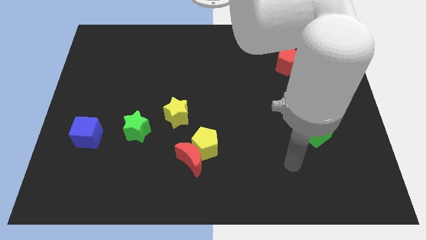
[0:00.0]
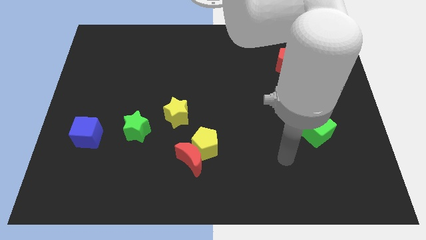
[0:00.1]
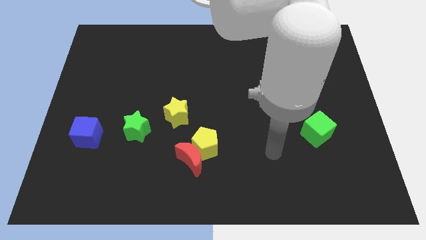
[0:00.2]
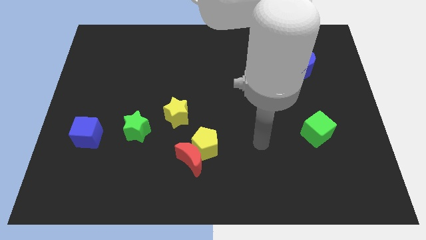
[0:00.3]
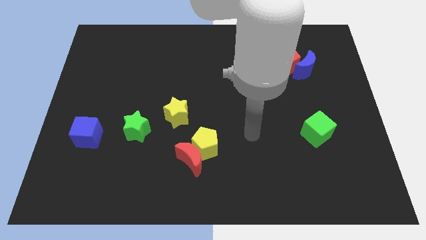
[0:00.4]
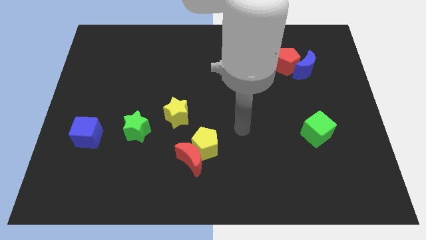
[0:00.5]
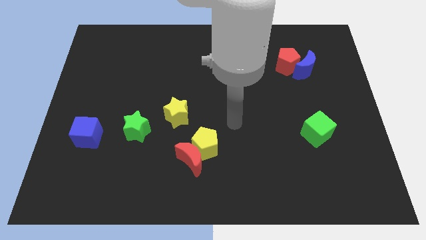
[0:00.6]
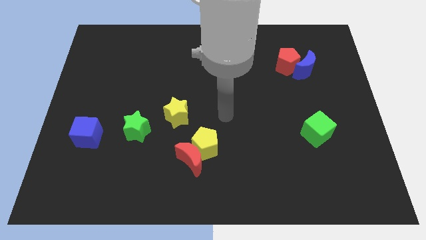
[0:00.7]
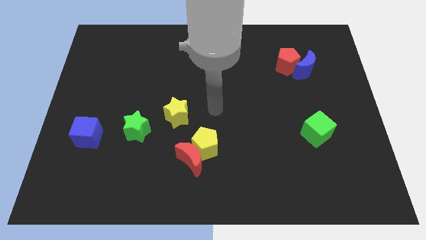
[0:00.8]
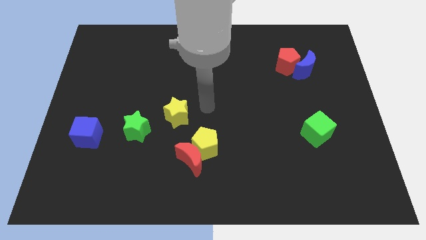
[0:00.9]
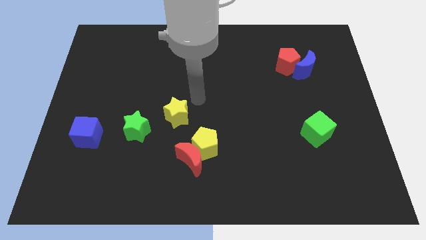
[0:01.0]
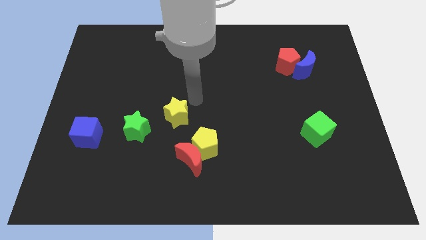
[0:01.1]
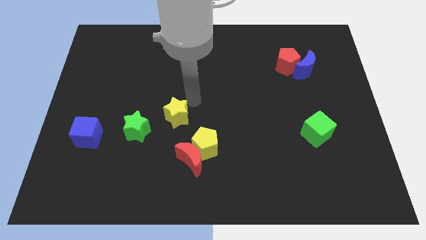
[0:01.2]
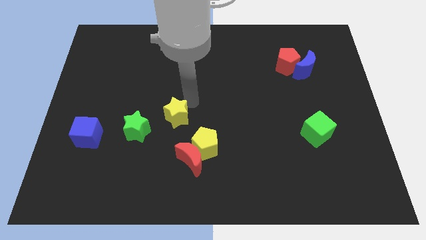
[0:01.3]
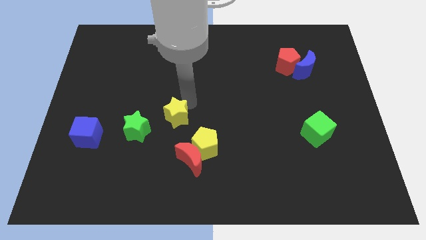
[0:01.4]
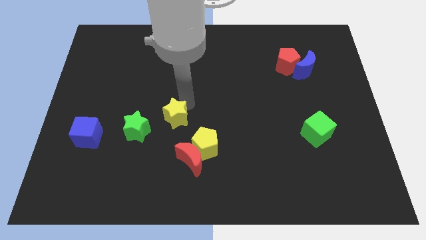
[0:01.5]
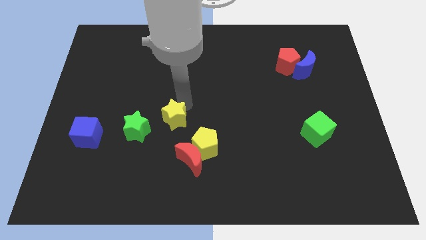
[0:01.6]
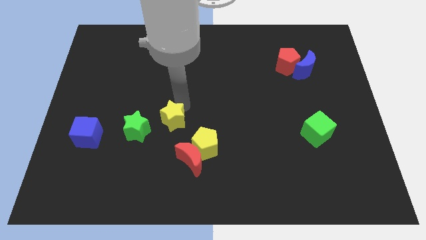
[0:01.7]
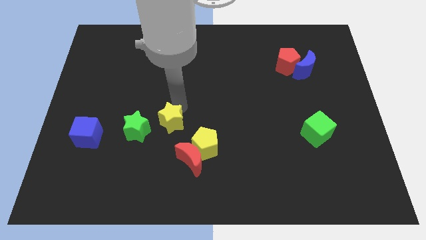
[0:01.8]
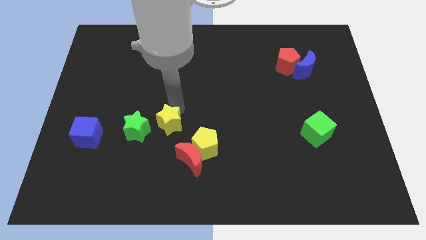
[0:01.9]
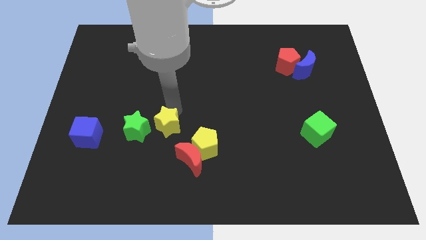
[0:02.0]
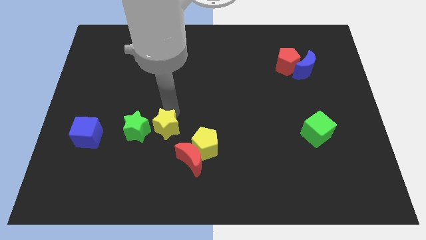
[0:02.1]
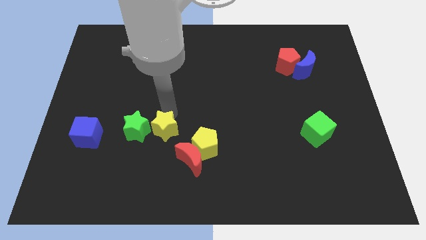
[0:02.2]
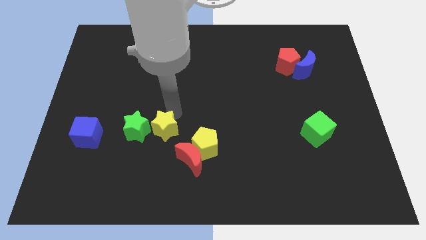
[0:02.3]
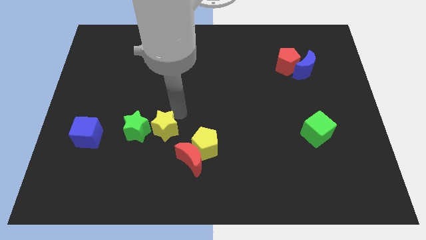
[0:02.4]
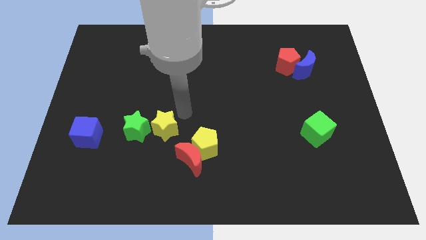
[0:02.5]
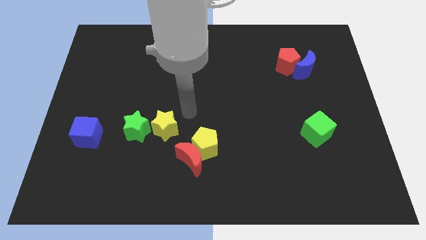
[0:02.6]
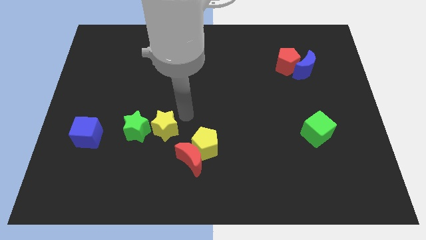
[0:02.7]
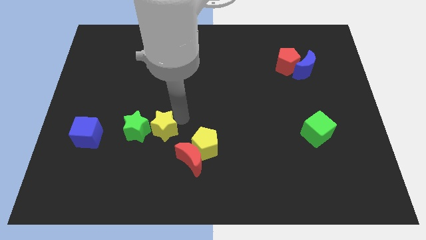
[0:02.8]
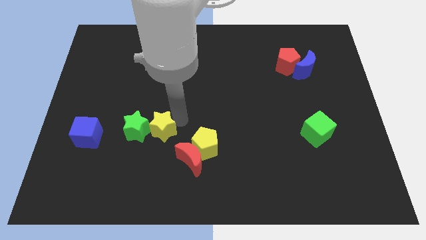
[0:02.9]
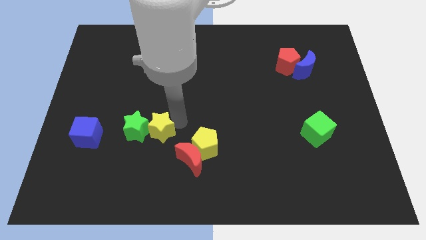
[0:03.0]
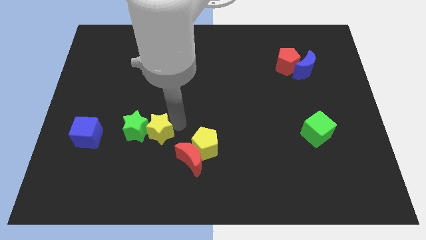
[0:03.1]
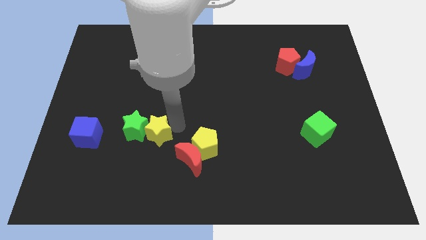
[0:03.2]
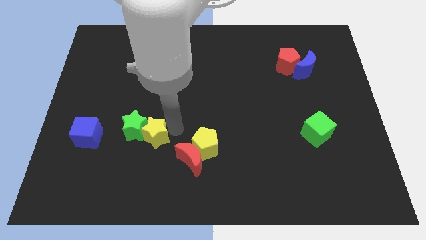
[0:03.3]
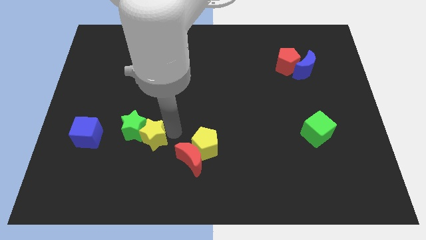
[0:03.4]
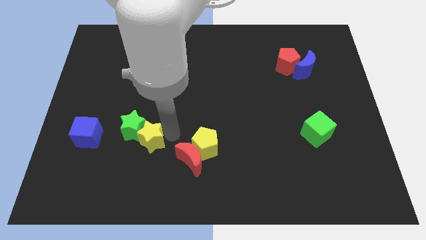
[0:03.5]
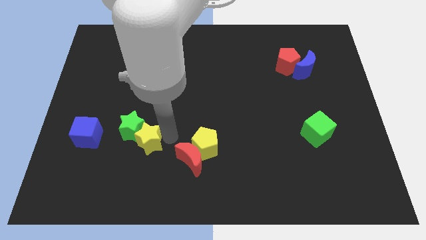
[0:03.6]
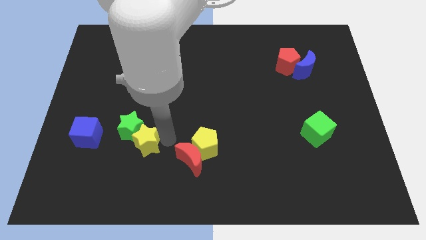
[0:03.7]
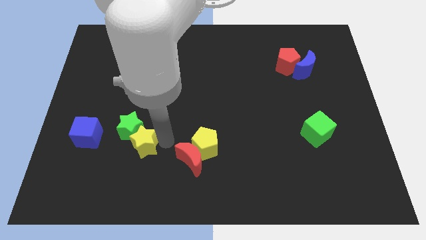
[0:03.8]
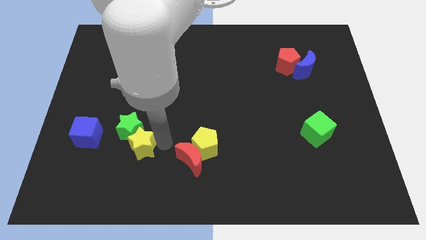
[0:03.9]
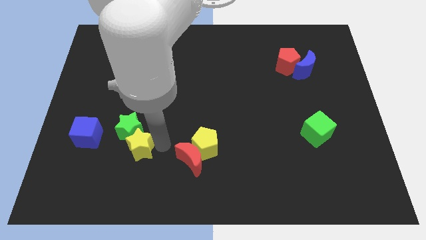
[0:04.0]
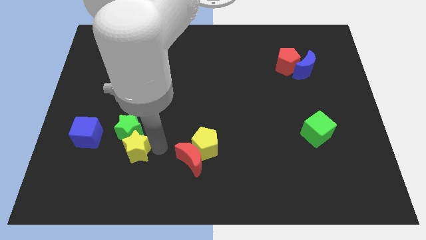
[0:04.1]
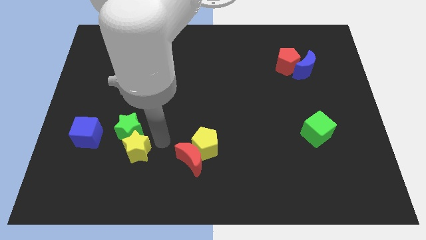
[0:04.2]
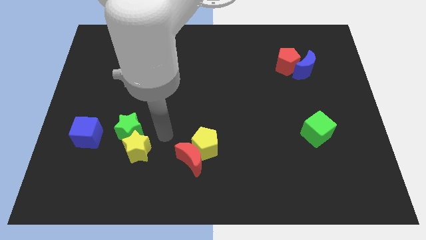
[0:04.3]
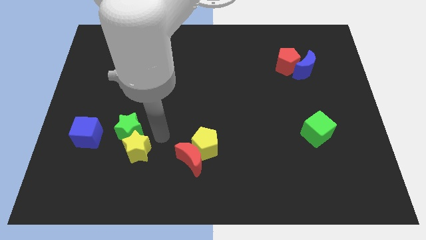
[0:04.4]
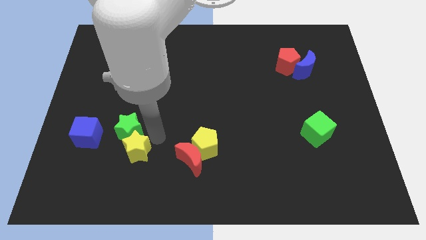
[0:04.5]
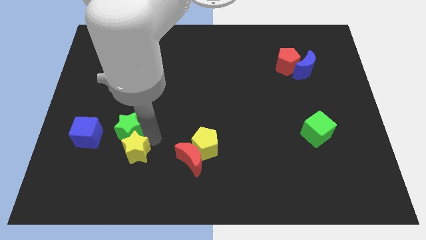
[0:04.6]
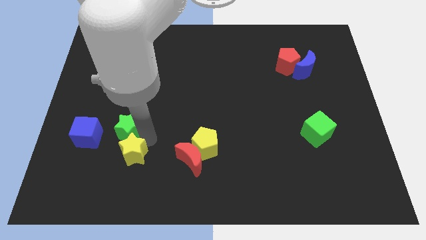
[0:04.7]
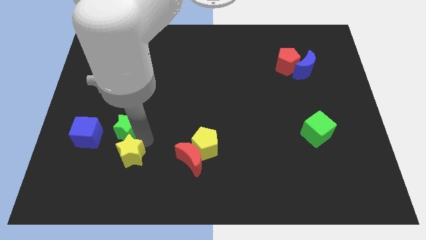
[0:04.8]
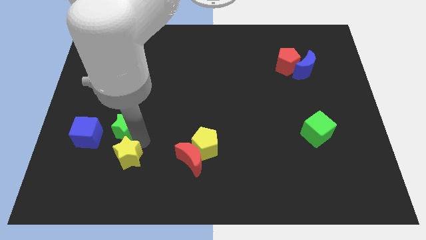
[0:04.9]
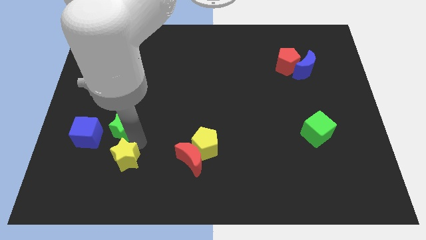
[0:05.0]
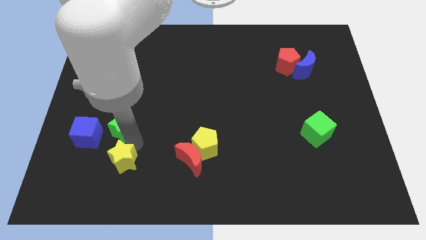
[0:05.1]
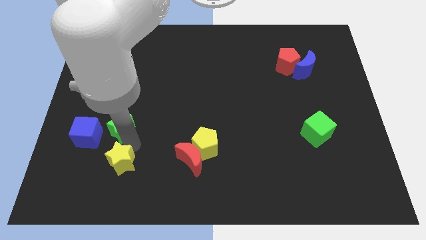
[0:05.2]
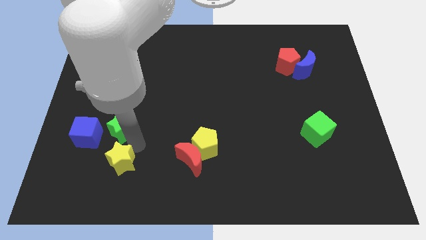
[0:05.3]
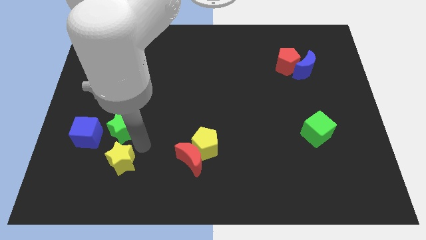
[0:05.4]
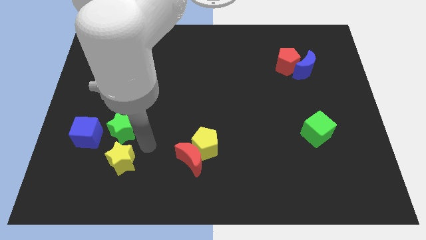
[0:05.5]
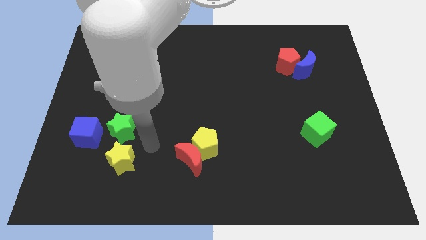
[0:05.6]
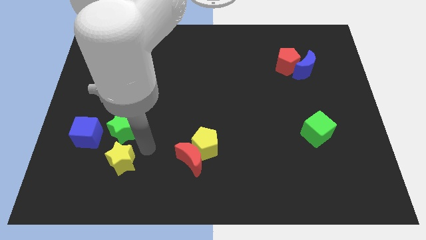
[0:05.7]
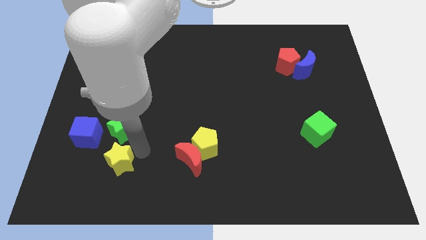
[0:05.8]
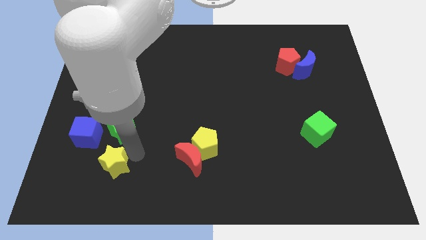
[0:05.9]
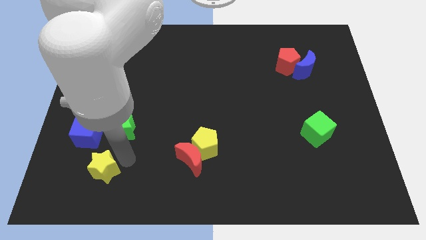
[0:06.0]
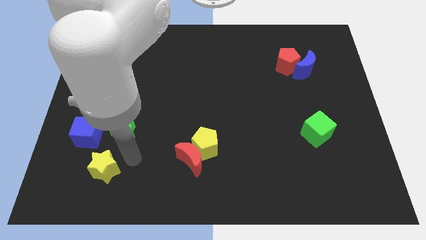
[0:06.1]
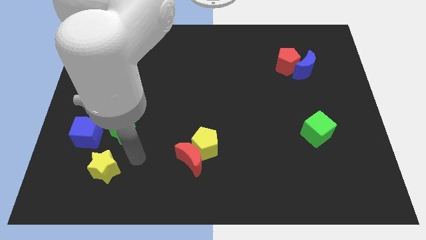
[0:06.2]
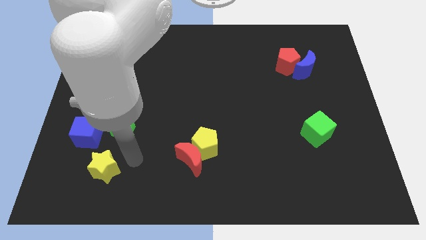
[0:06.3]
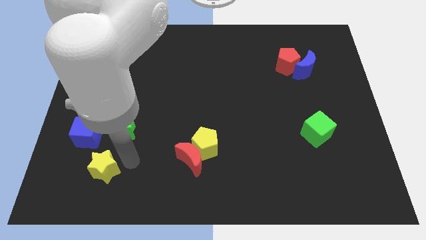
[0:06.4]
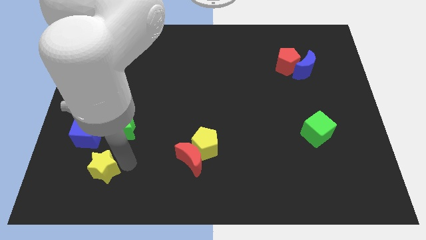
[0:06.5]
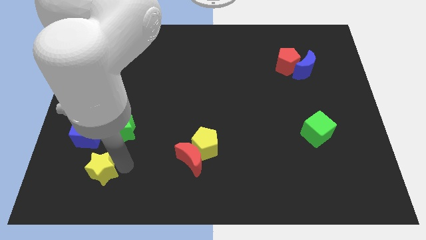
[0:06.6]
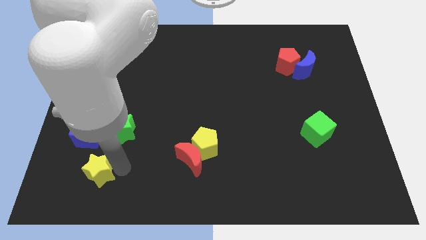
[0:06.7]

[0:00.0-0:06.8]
put the yellow star to the bottom side of the blue cube
